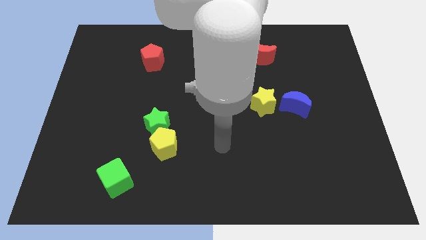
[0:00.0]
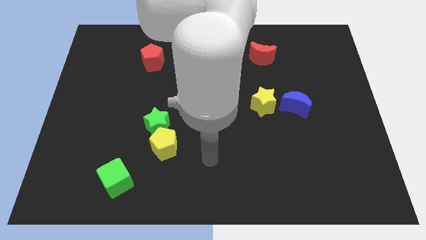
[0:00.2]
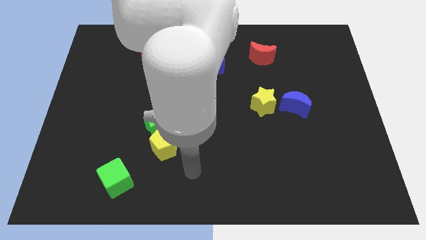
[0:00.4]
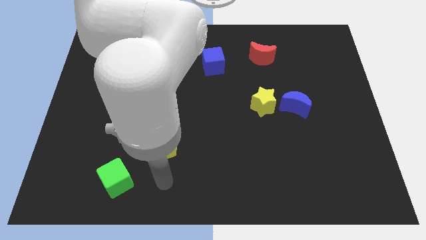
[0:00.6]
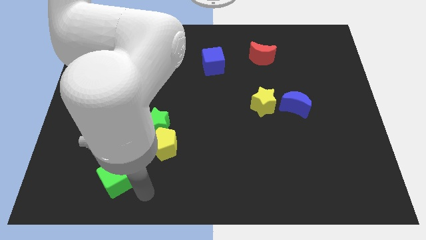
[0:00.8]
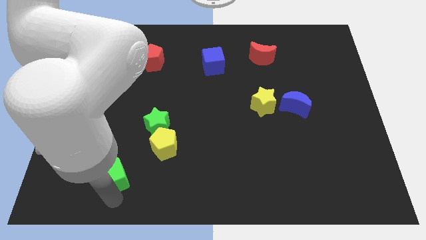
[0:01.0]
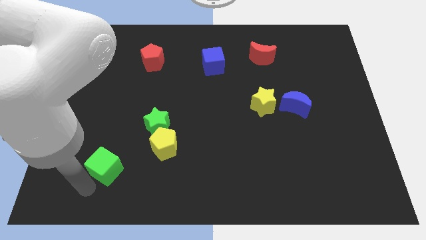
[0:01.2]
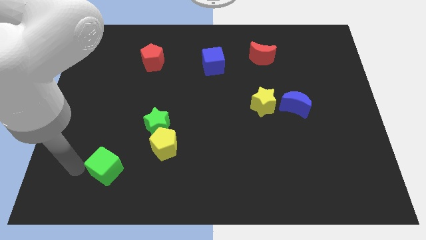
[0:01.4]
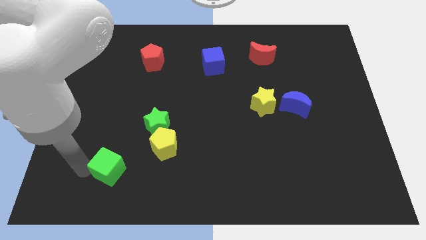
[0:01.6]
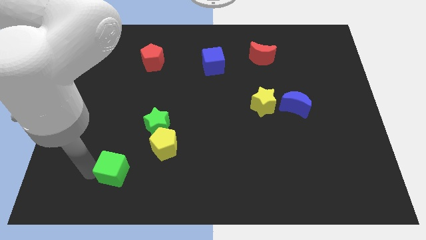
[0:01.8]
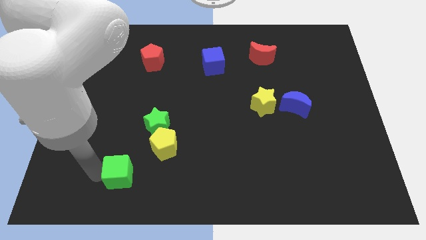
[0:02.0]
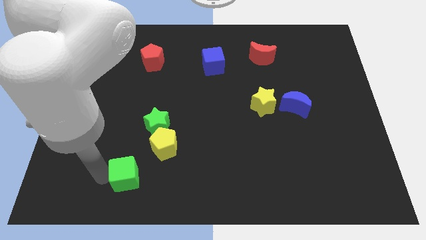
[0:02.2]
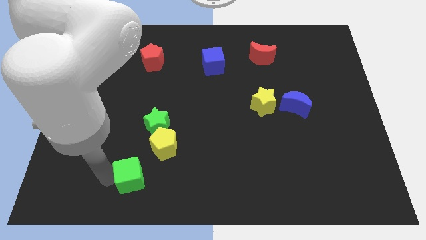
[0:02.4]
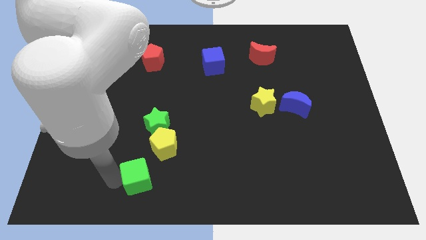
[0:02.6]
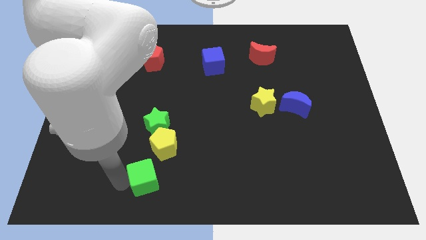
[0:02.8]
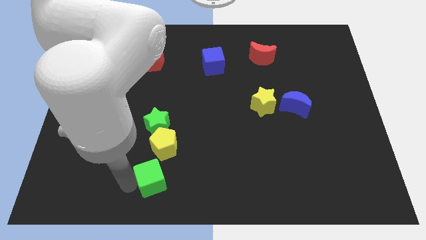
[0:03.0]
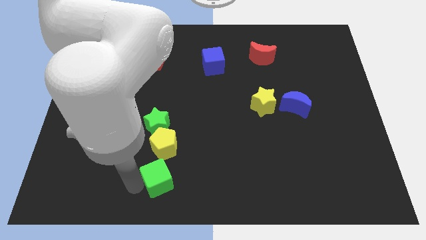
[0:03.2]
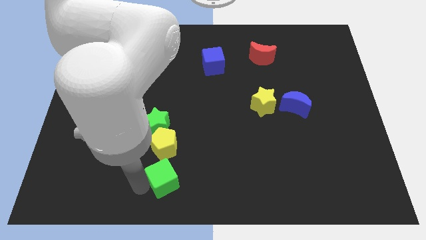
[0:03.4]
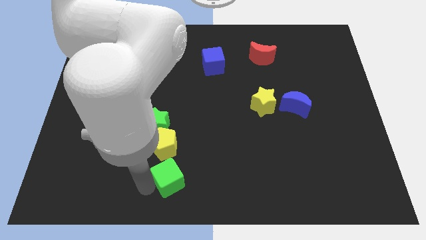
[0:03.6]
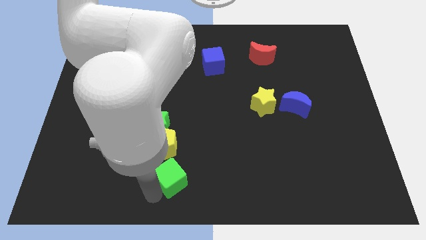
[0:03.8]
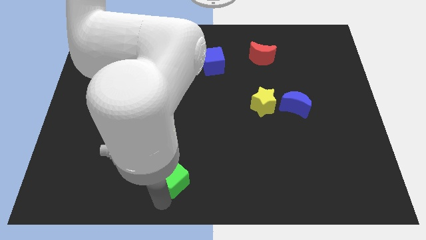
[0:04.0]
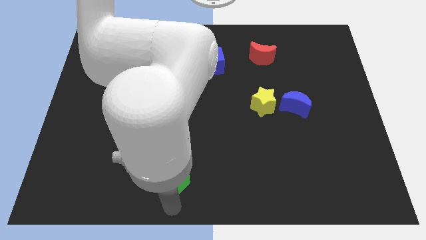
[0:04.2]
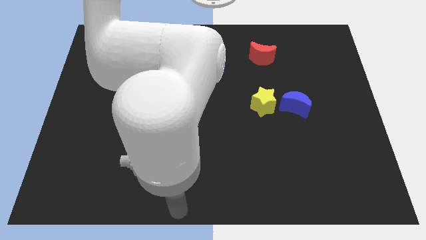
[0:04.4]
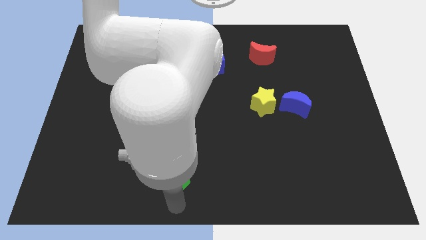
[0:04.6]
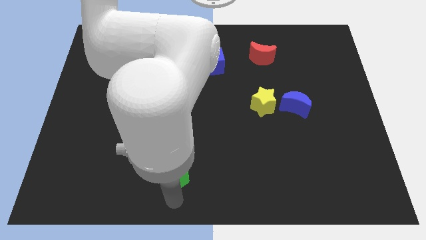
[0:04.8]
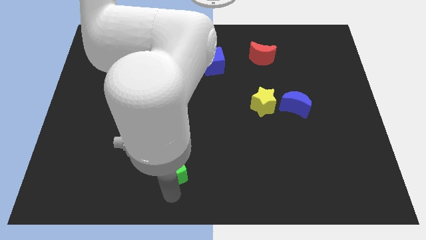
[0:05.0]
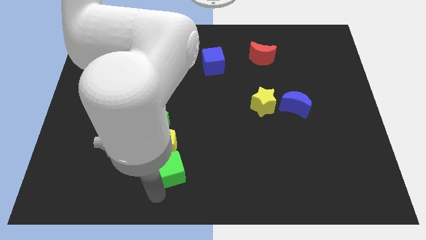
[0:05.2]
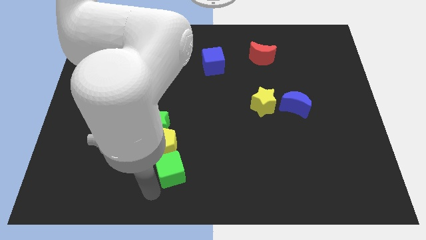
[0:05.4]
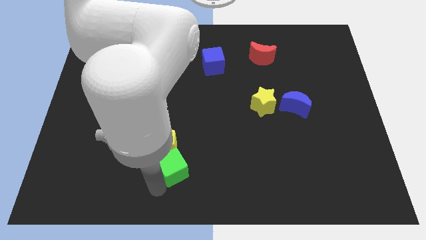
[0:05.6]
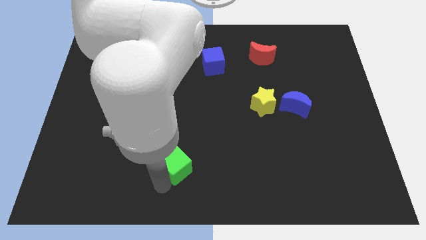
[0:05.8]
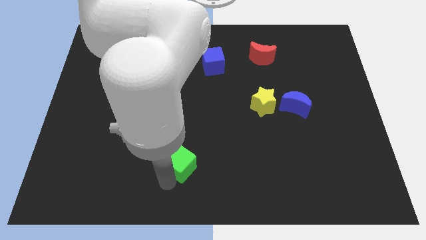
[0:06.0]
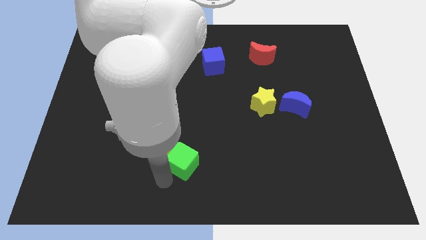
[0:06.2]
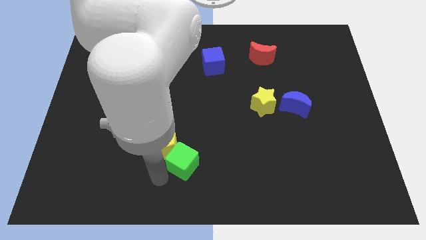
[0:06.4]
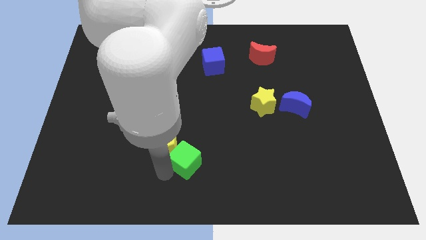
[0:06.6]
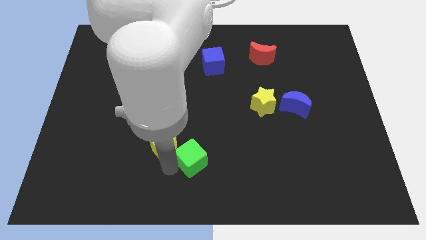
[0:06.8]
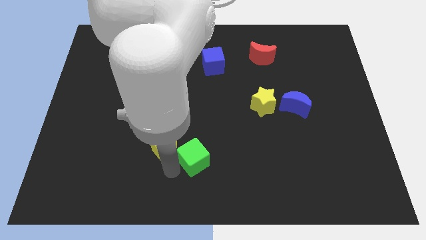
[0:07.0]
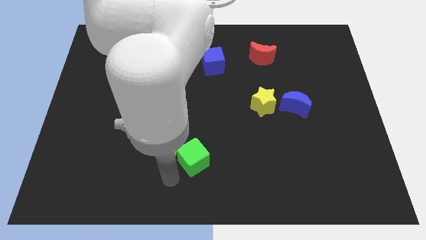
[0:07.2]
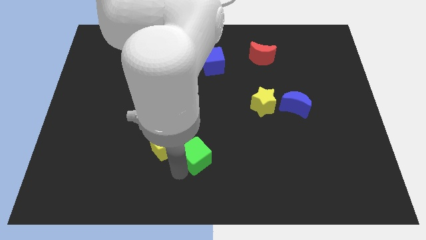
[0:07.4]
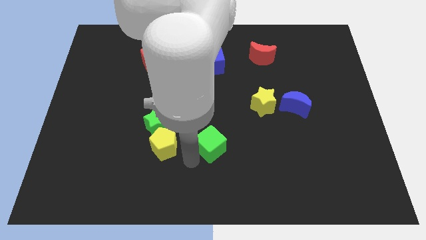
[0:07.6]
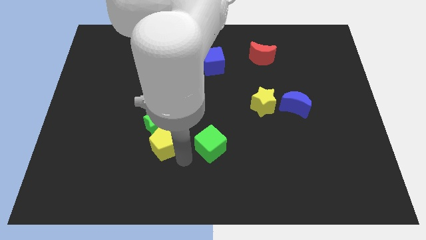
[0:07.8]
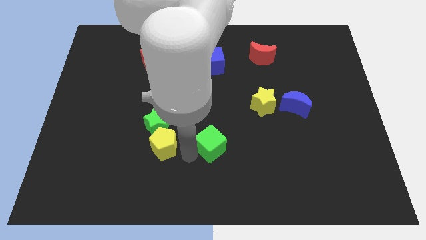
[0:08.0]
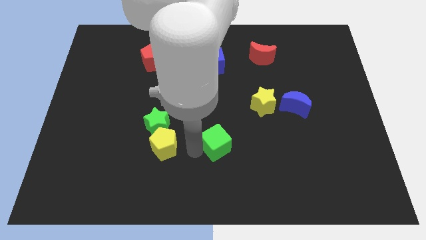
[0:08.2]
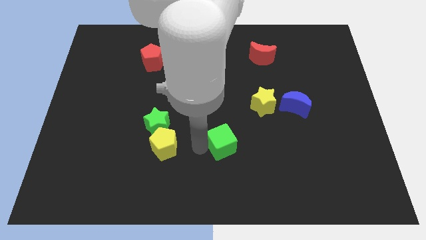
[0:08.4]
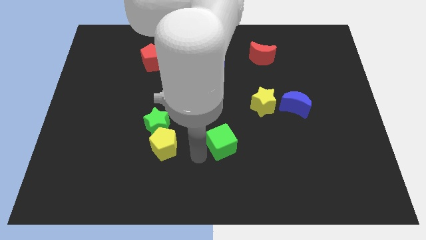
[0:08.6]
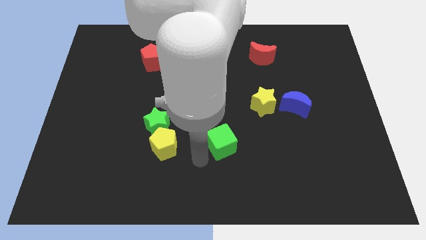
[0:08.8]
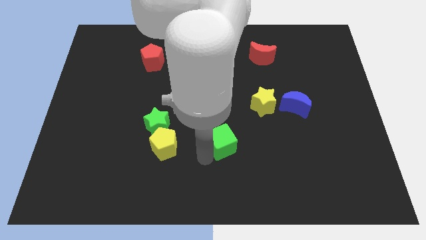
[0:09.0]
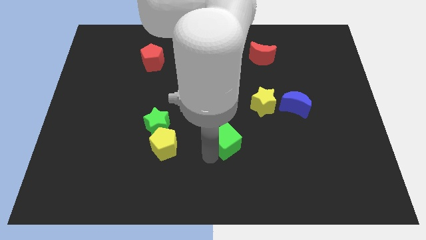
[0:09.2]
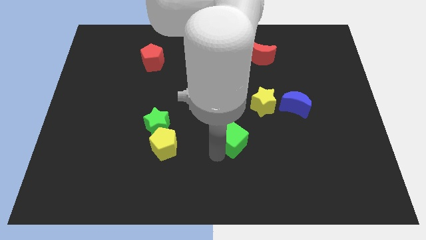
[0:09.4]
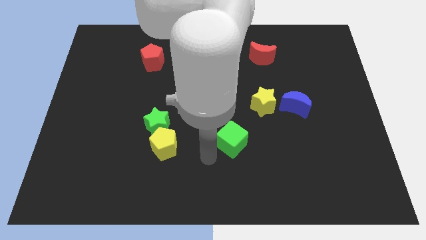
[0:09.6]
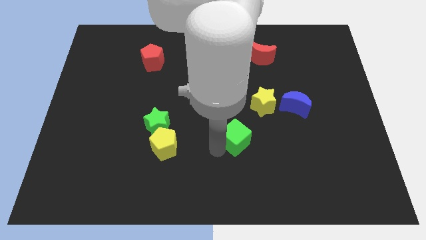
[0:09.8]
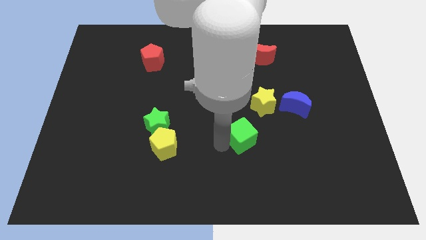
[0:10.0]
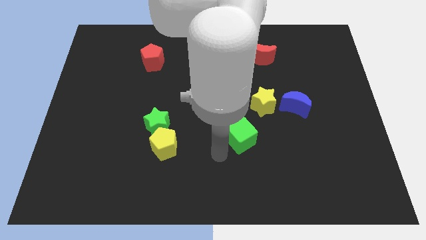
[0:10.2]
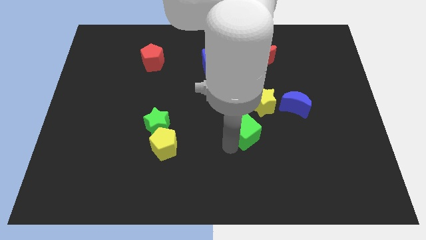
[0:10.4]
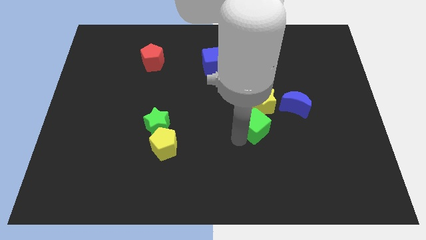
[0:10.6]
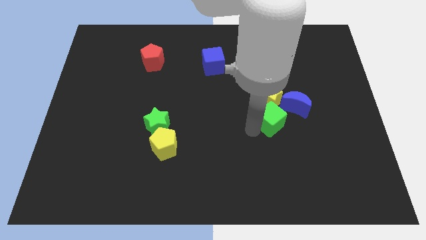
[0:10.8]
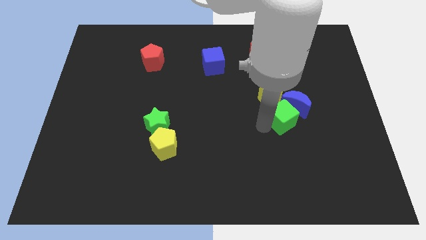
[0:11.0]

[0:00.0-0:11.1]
slide the green cube close to the blue moon

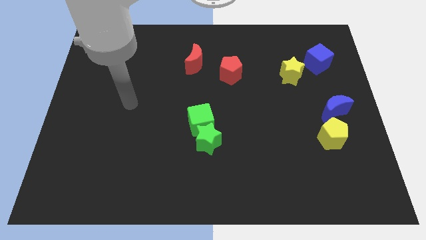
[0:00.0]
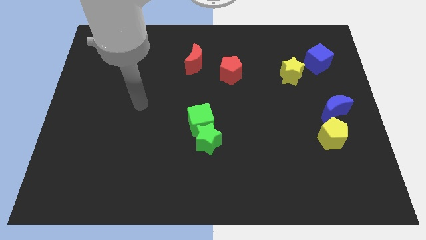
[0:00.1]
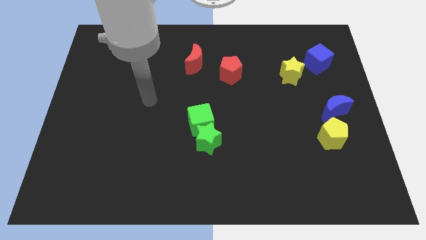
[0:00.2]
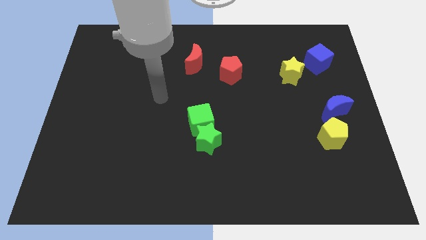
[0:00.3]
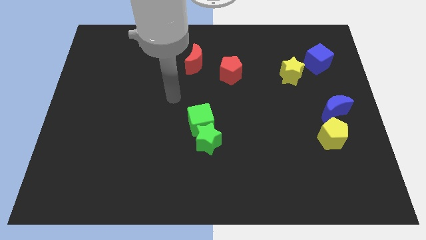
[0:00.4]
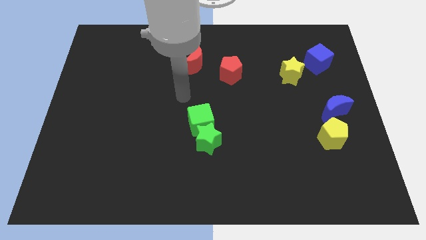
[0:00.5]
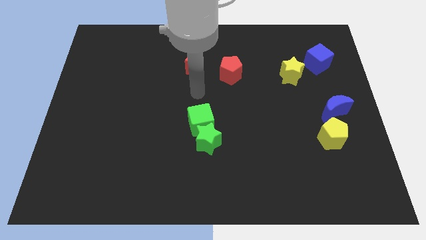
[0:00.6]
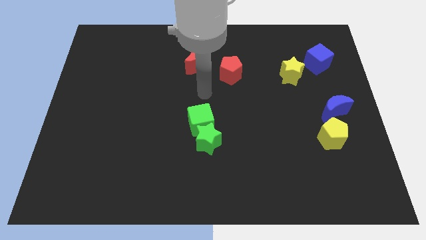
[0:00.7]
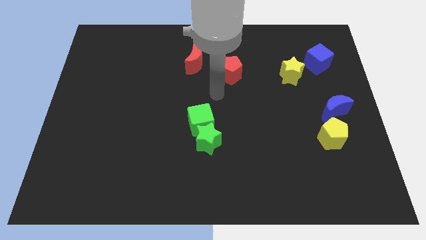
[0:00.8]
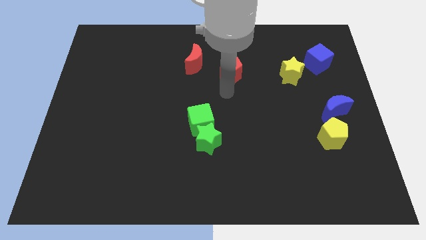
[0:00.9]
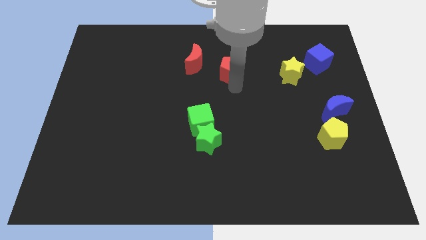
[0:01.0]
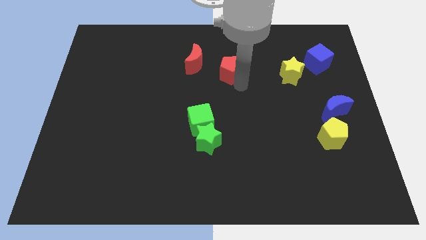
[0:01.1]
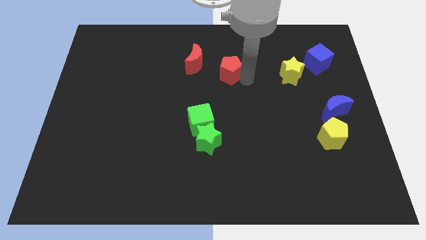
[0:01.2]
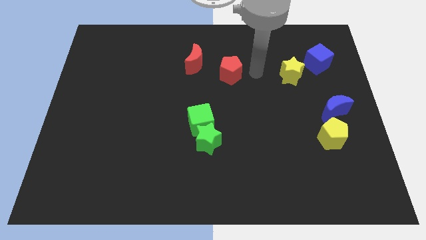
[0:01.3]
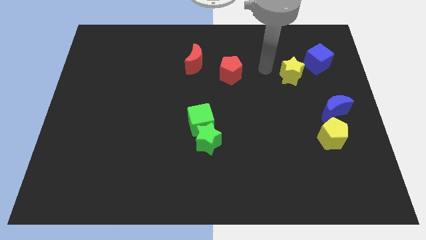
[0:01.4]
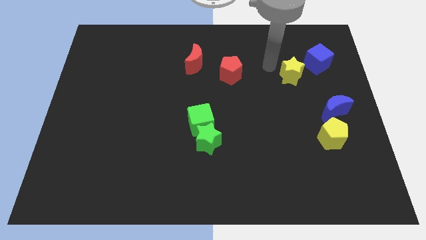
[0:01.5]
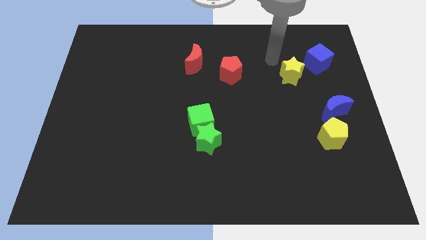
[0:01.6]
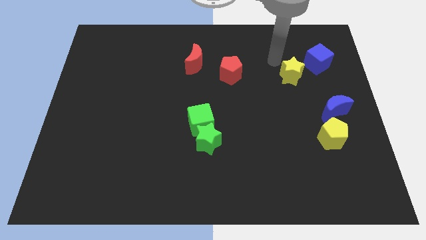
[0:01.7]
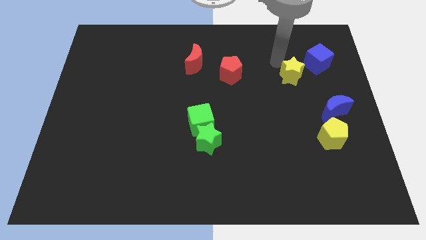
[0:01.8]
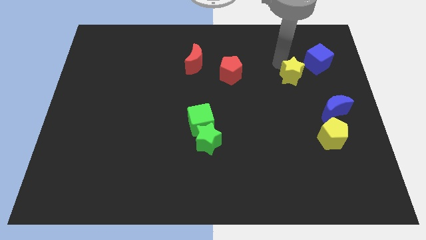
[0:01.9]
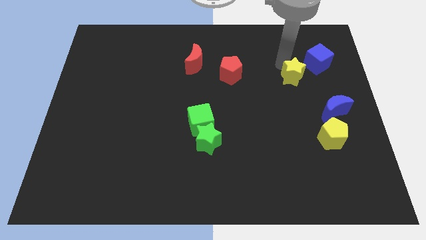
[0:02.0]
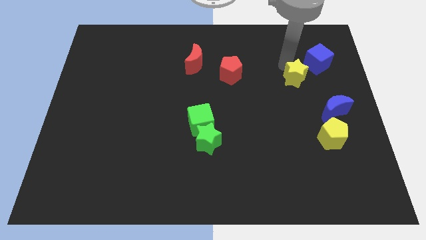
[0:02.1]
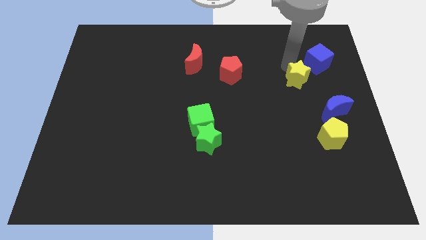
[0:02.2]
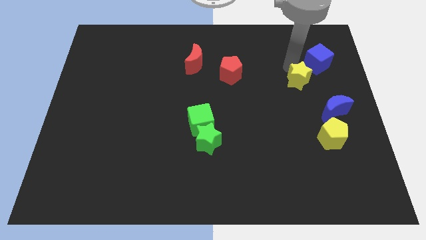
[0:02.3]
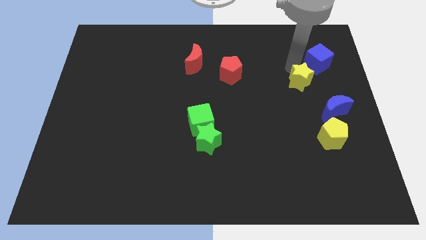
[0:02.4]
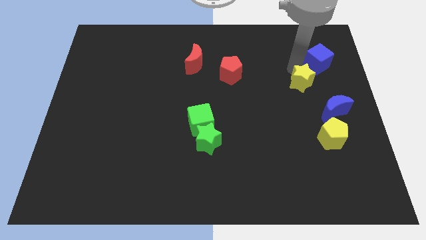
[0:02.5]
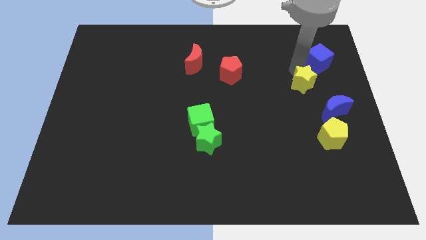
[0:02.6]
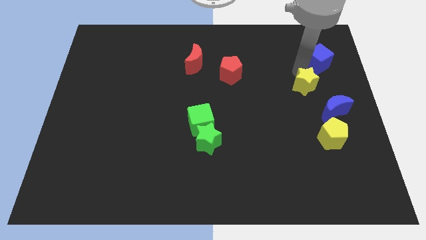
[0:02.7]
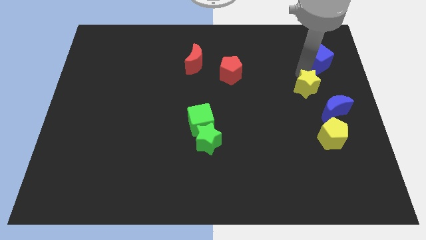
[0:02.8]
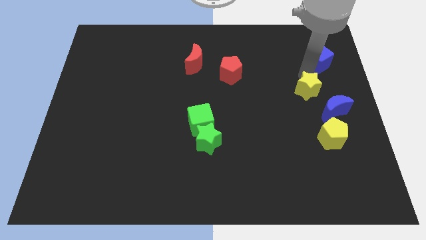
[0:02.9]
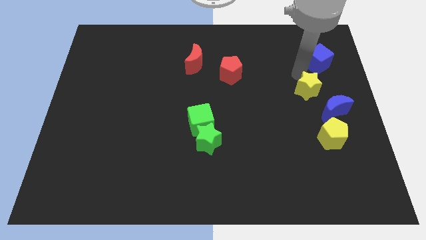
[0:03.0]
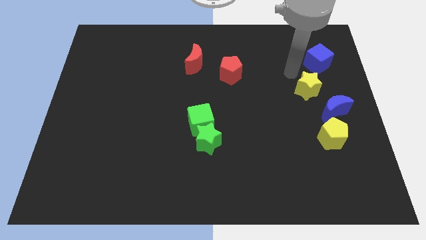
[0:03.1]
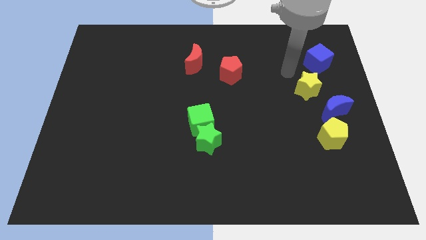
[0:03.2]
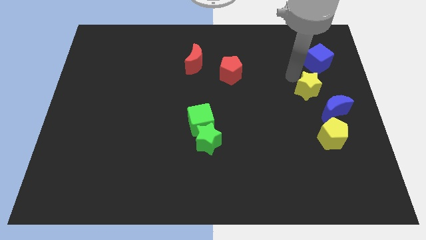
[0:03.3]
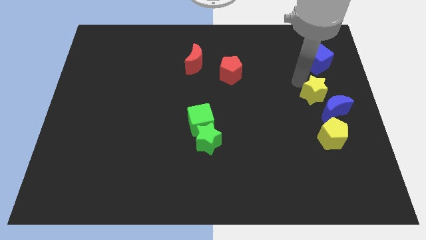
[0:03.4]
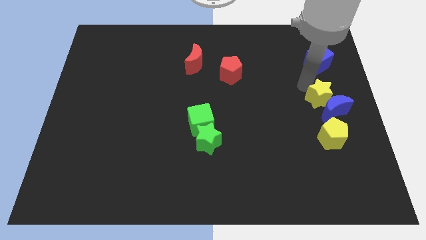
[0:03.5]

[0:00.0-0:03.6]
slide the yellow star close to the blue moon
